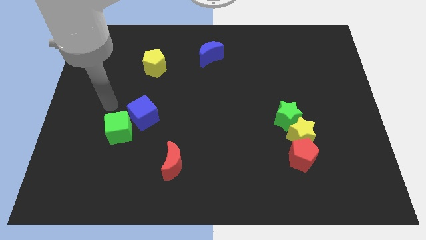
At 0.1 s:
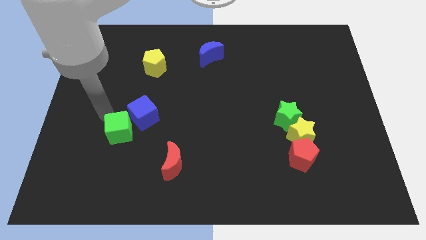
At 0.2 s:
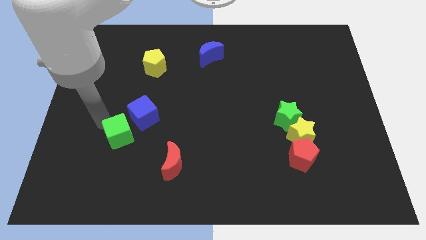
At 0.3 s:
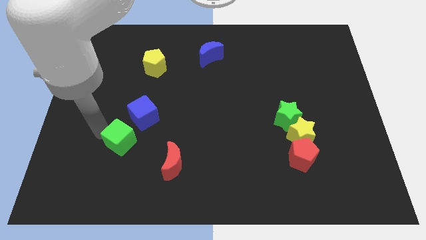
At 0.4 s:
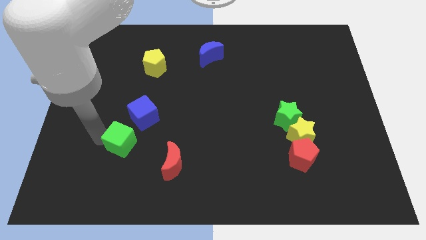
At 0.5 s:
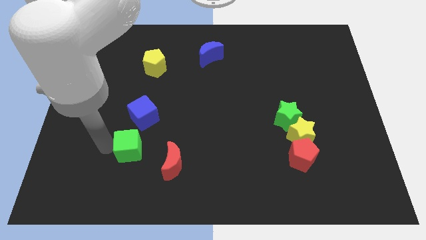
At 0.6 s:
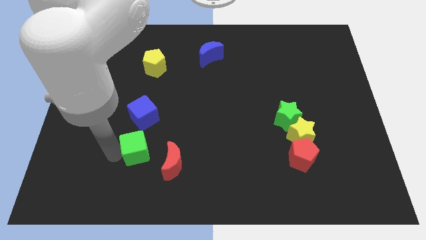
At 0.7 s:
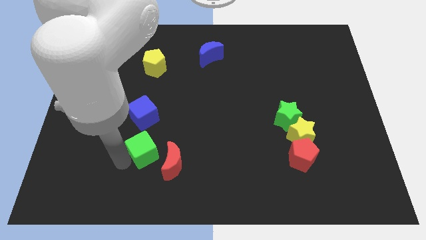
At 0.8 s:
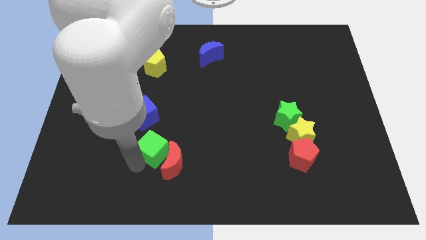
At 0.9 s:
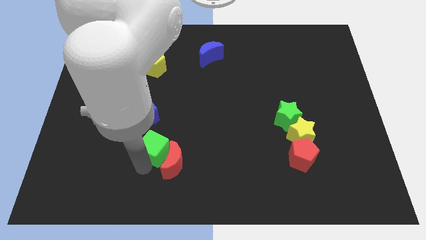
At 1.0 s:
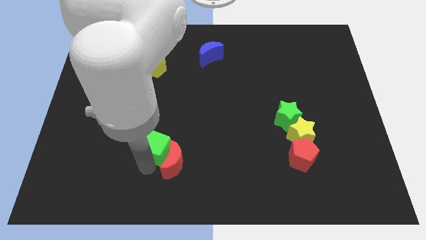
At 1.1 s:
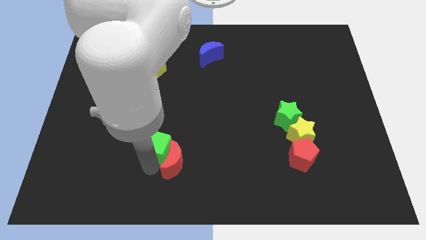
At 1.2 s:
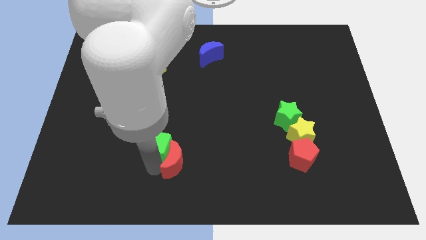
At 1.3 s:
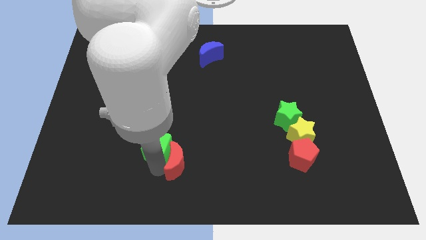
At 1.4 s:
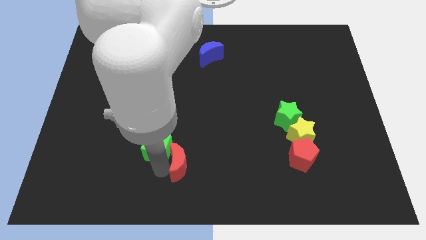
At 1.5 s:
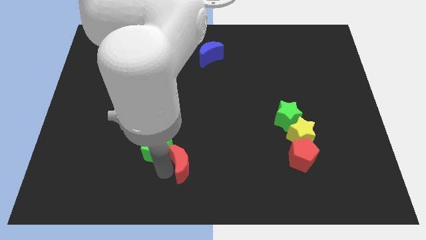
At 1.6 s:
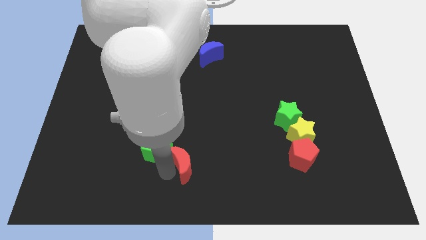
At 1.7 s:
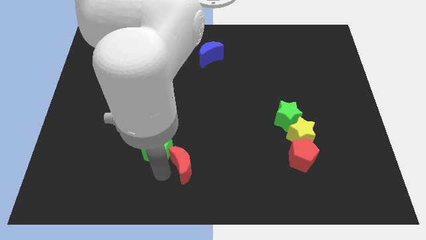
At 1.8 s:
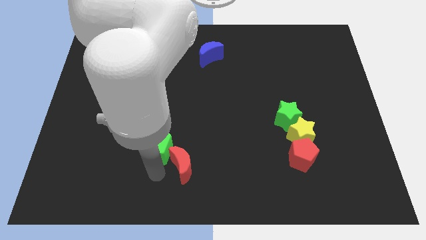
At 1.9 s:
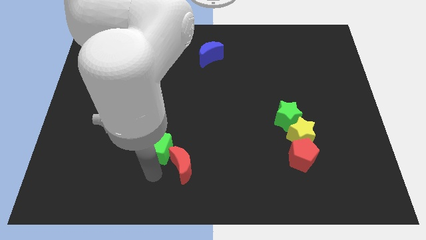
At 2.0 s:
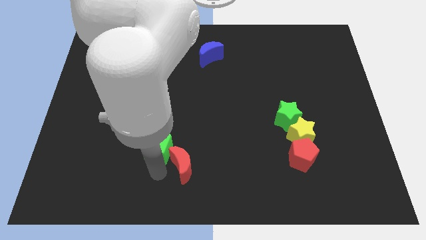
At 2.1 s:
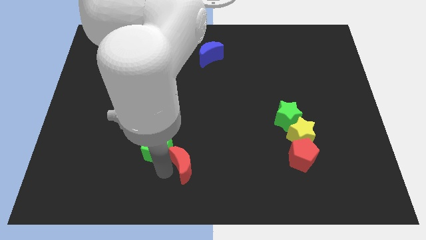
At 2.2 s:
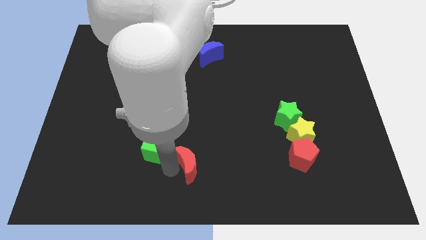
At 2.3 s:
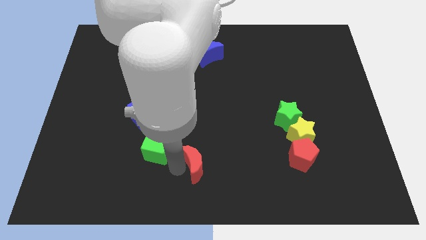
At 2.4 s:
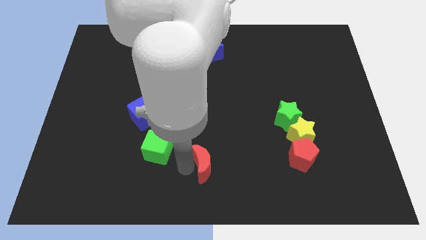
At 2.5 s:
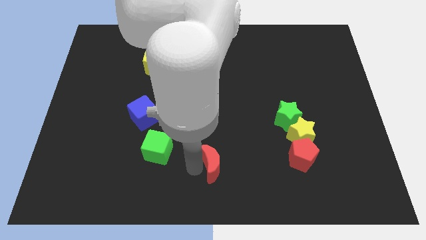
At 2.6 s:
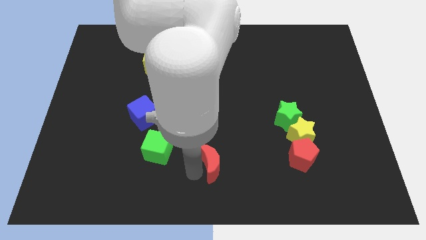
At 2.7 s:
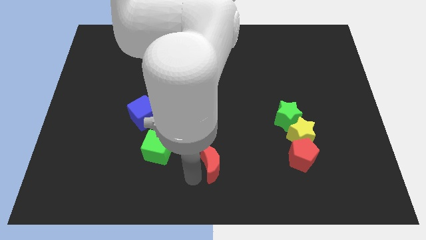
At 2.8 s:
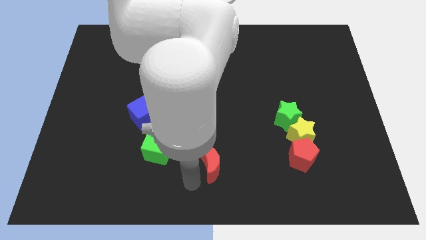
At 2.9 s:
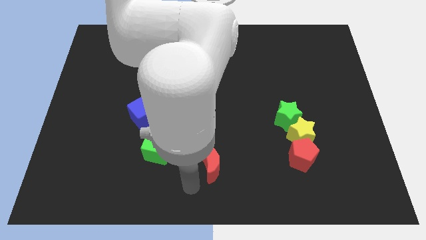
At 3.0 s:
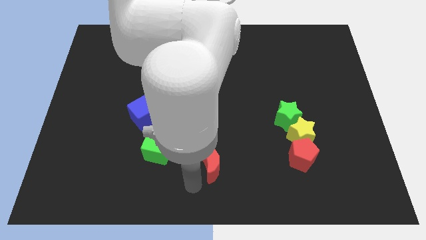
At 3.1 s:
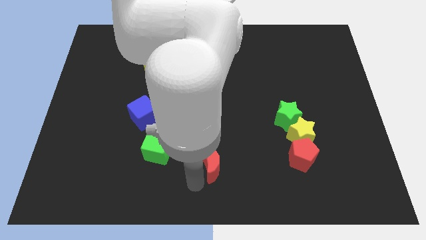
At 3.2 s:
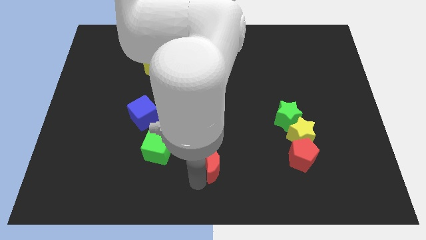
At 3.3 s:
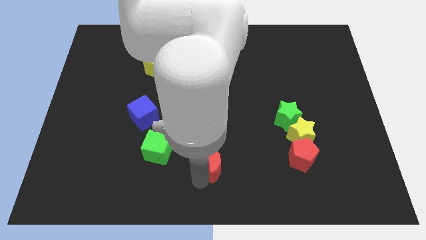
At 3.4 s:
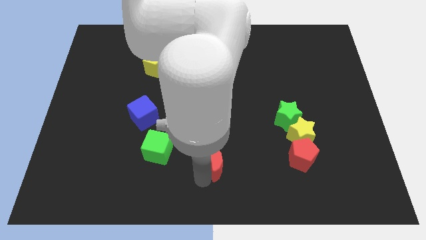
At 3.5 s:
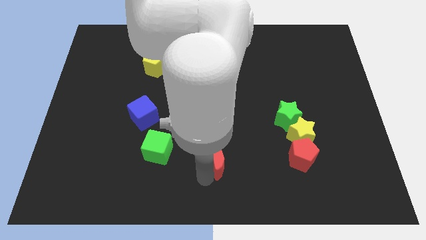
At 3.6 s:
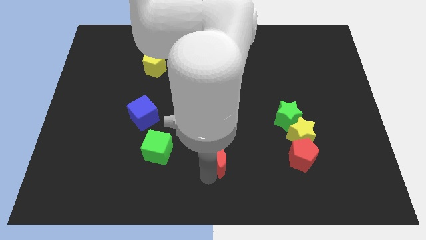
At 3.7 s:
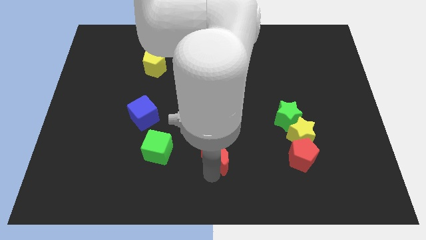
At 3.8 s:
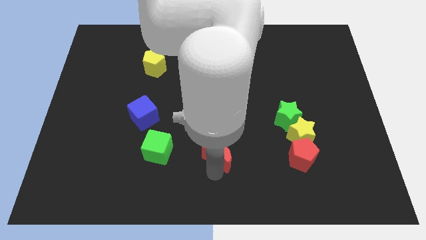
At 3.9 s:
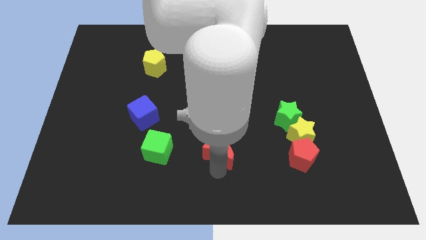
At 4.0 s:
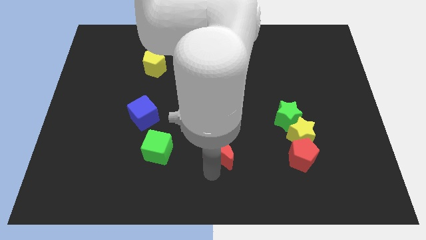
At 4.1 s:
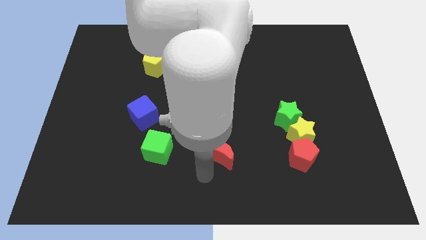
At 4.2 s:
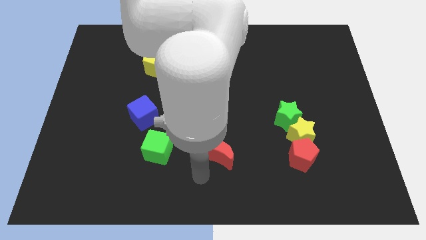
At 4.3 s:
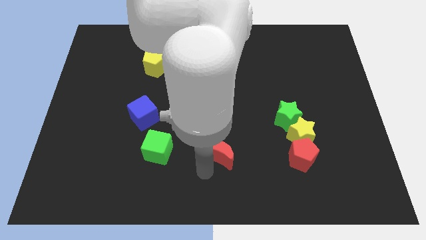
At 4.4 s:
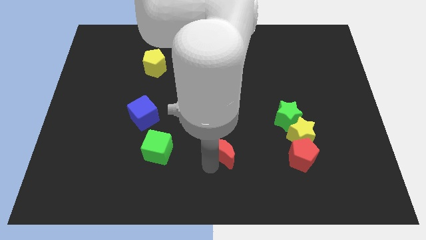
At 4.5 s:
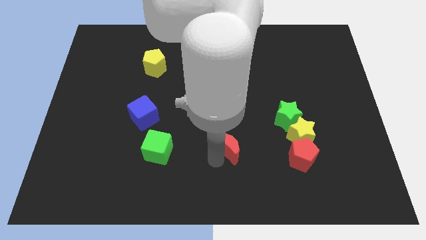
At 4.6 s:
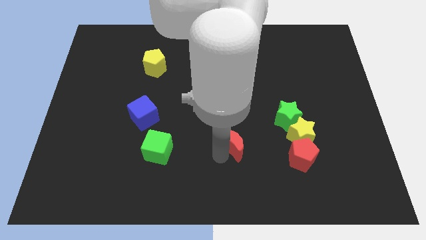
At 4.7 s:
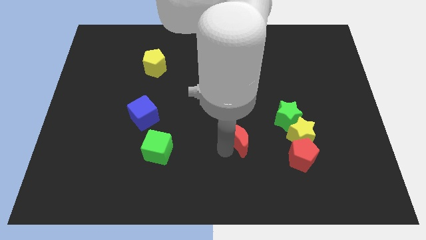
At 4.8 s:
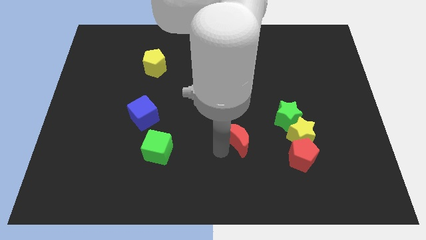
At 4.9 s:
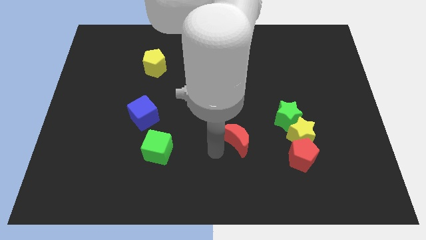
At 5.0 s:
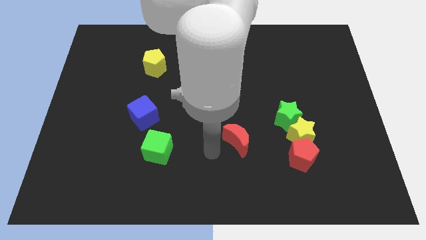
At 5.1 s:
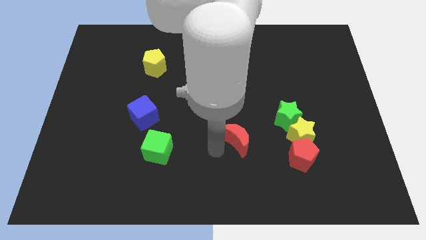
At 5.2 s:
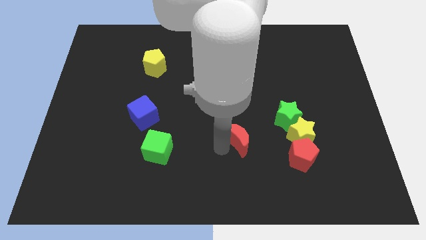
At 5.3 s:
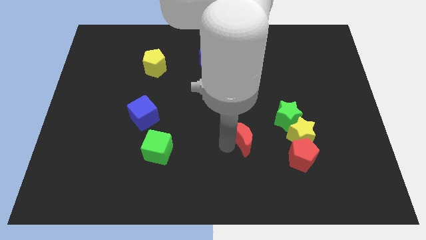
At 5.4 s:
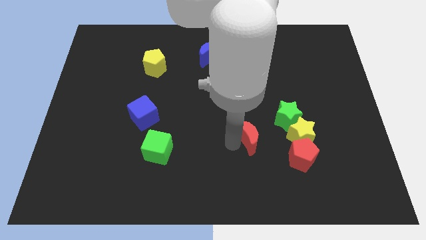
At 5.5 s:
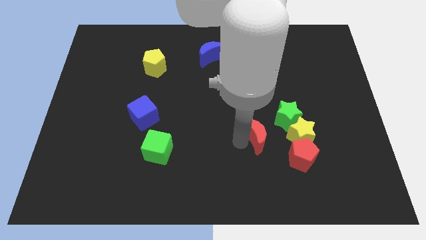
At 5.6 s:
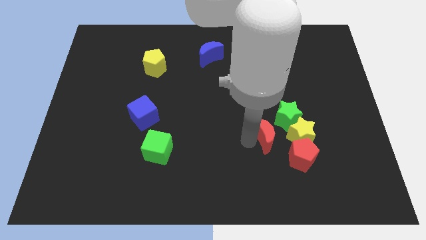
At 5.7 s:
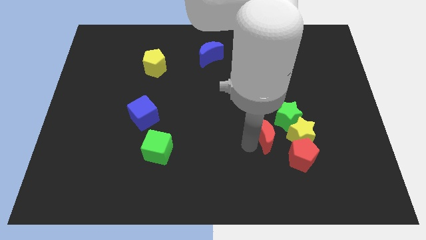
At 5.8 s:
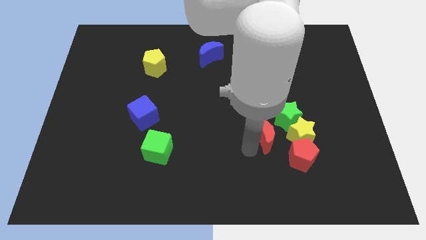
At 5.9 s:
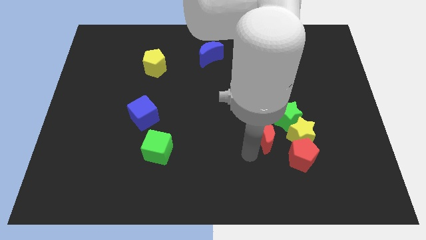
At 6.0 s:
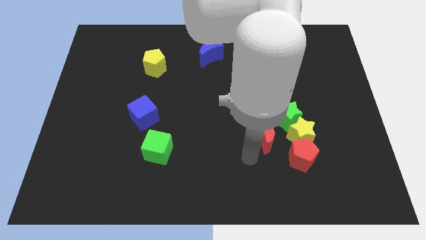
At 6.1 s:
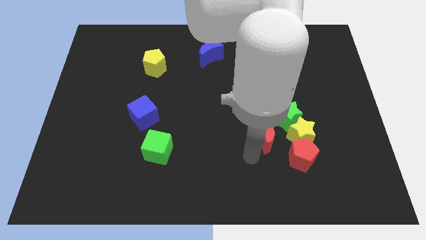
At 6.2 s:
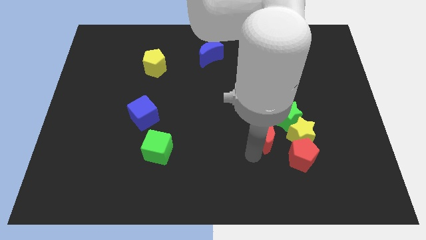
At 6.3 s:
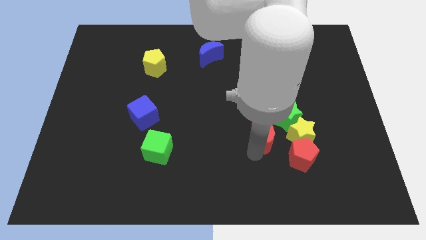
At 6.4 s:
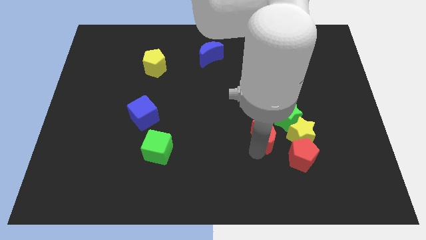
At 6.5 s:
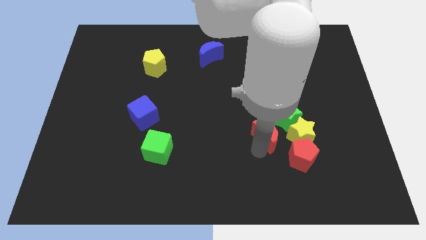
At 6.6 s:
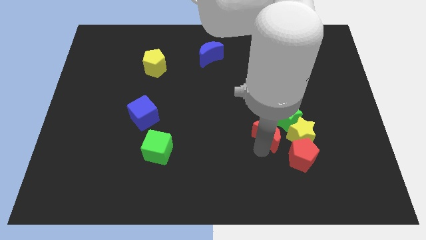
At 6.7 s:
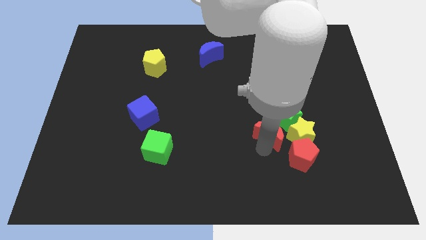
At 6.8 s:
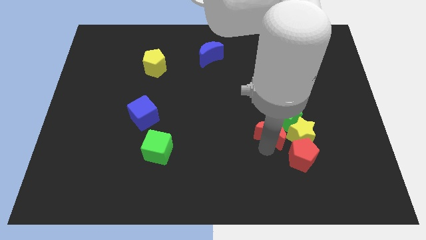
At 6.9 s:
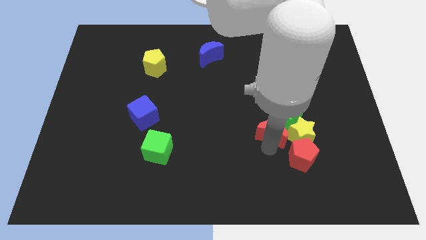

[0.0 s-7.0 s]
move the red moon to the green star
